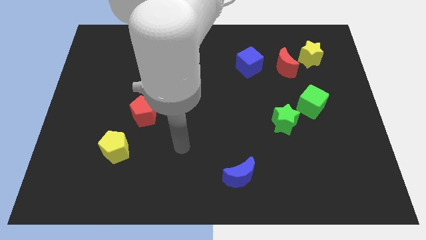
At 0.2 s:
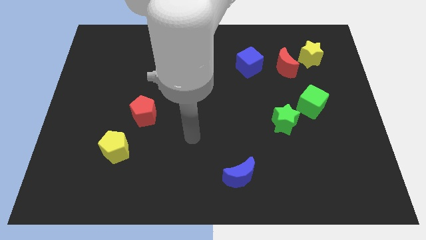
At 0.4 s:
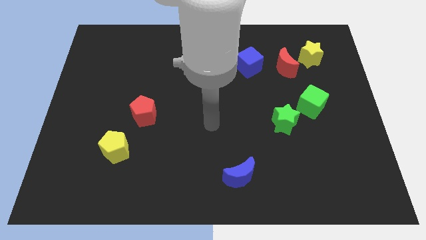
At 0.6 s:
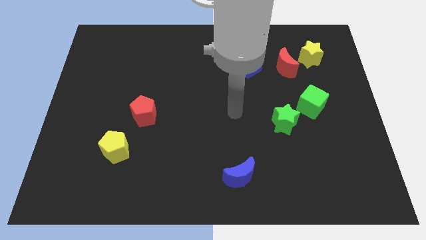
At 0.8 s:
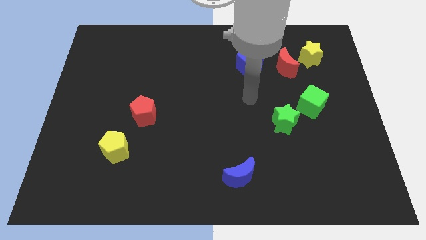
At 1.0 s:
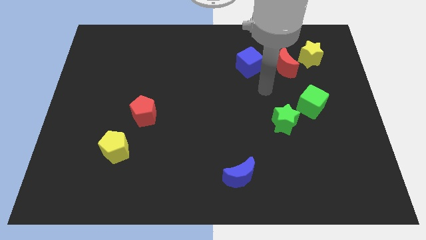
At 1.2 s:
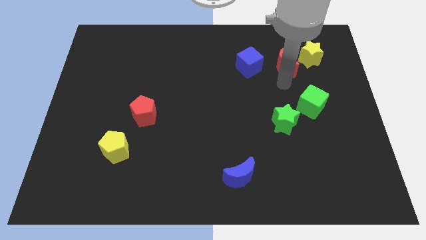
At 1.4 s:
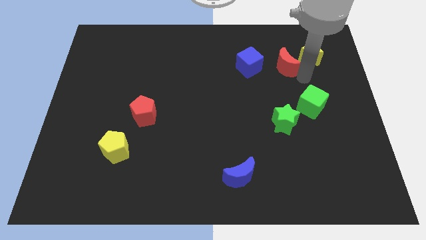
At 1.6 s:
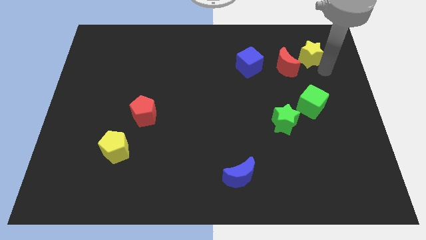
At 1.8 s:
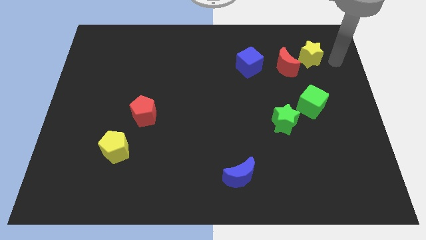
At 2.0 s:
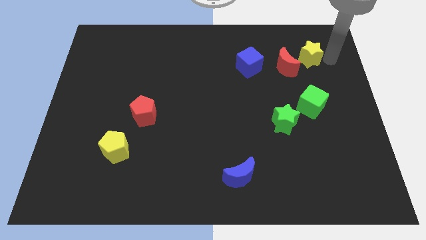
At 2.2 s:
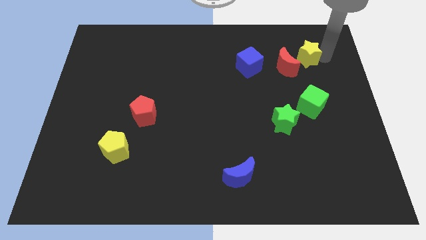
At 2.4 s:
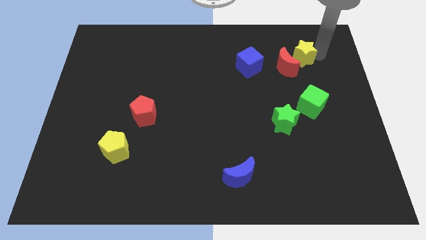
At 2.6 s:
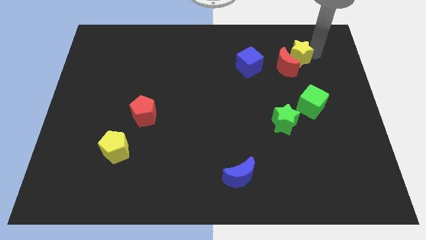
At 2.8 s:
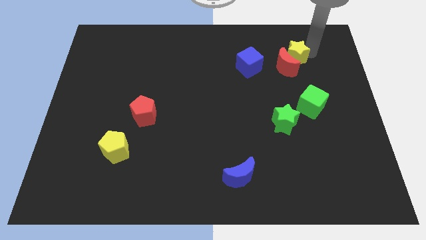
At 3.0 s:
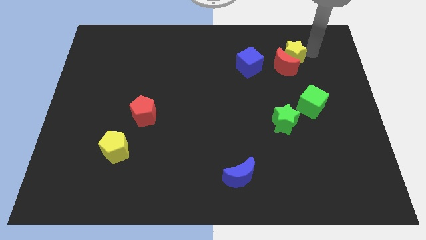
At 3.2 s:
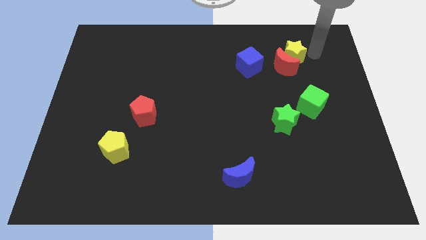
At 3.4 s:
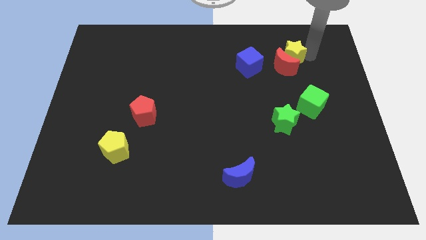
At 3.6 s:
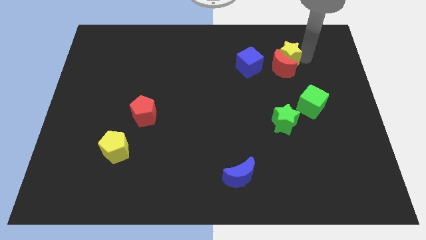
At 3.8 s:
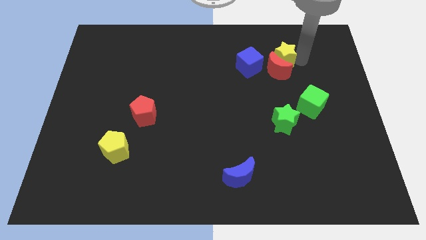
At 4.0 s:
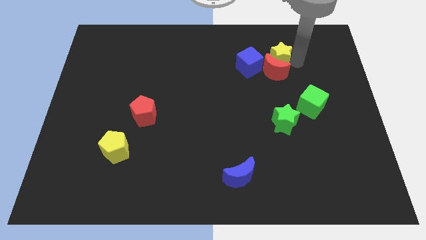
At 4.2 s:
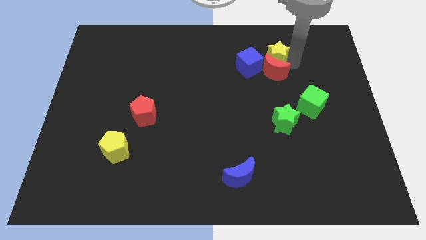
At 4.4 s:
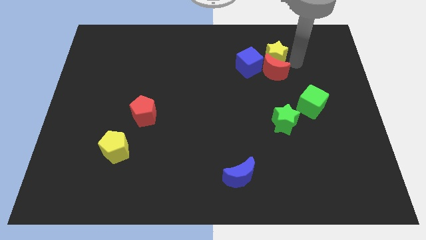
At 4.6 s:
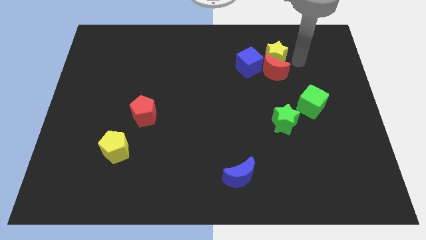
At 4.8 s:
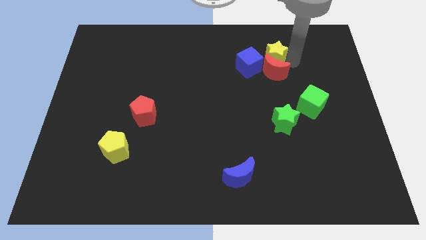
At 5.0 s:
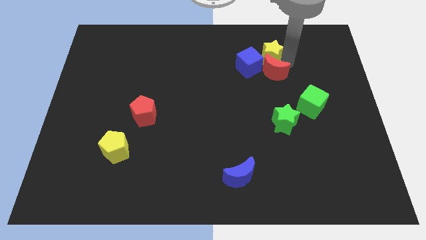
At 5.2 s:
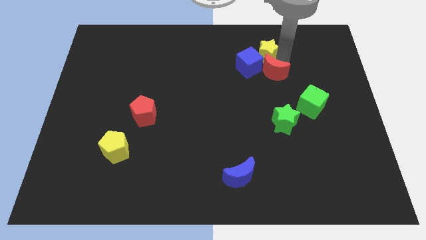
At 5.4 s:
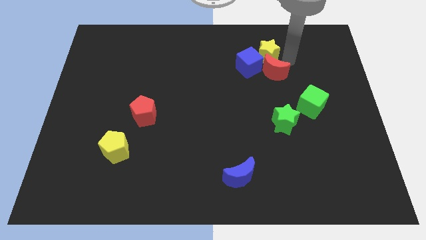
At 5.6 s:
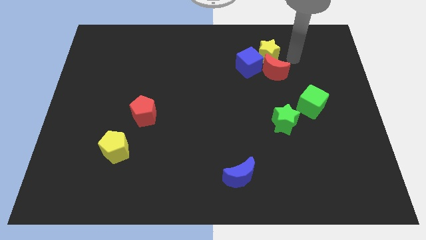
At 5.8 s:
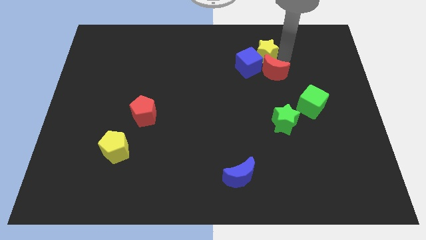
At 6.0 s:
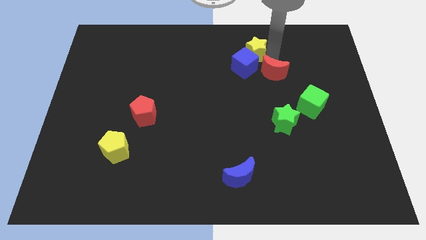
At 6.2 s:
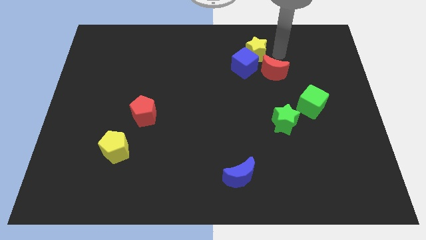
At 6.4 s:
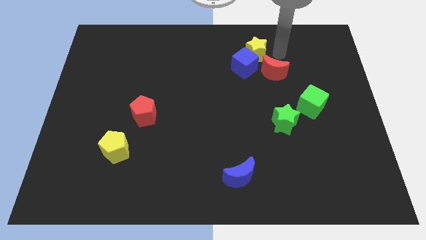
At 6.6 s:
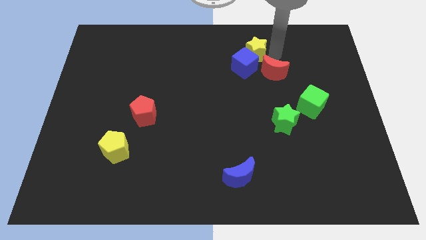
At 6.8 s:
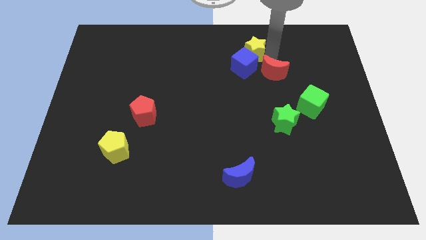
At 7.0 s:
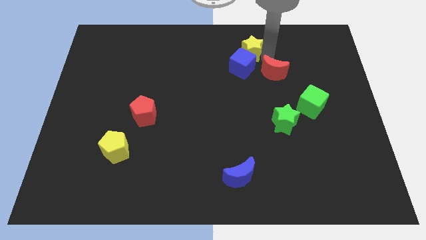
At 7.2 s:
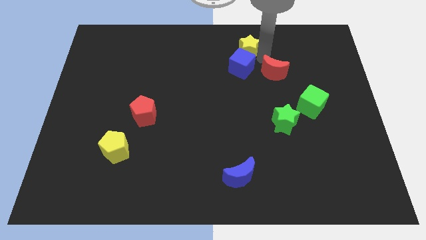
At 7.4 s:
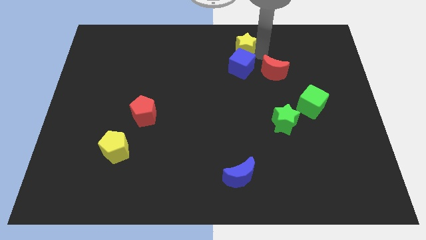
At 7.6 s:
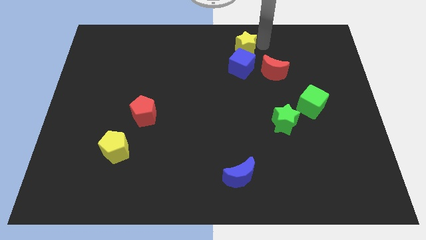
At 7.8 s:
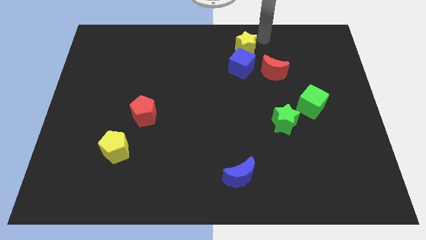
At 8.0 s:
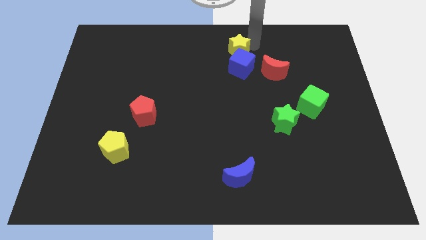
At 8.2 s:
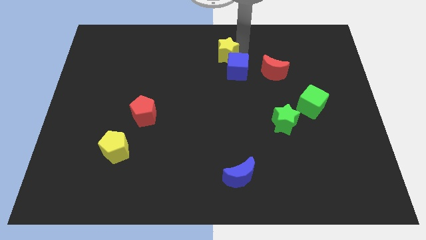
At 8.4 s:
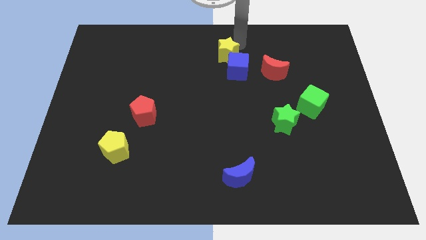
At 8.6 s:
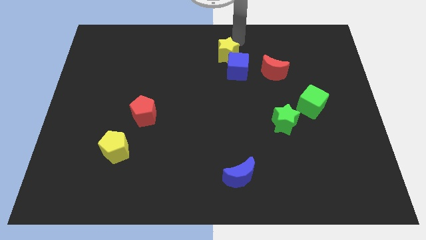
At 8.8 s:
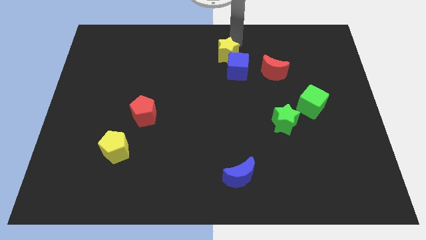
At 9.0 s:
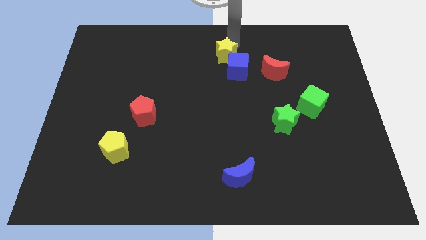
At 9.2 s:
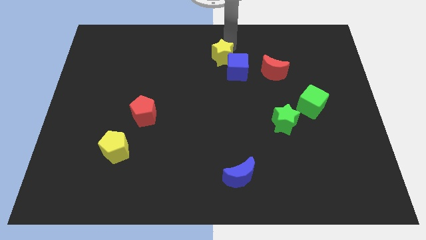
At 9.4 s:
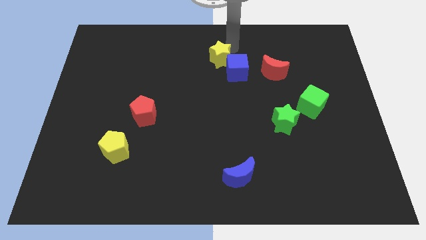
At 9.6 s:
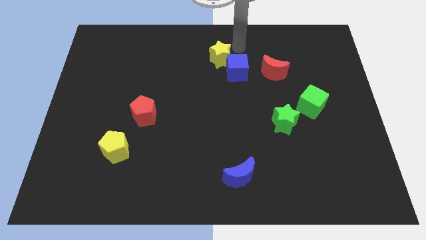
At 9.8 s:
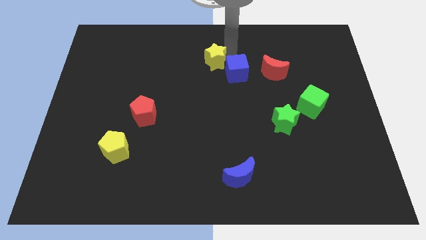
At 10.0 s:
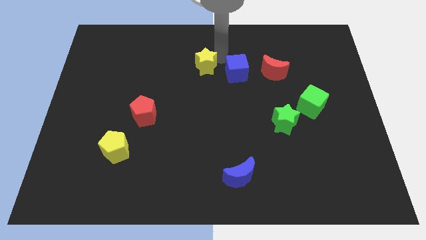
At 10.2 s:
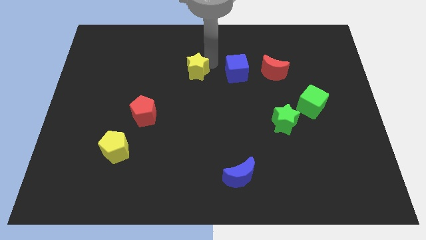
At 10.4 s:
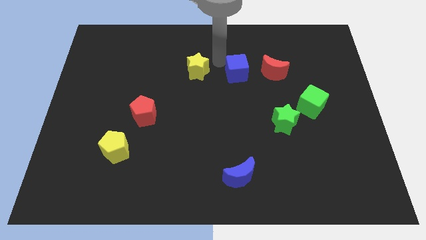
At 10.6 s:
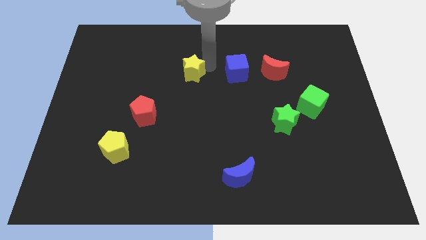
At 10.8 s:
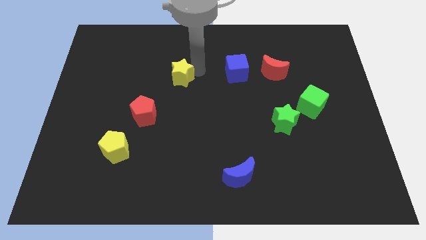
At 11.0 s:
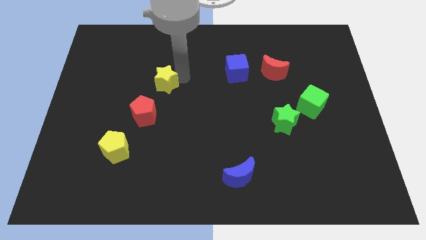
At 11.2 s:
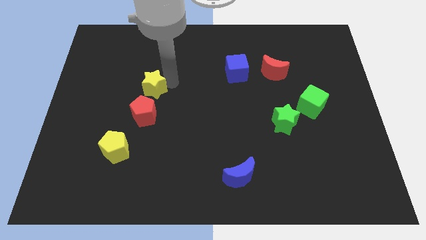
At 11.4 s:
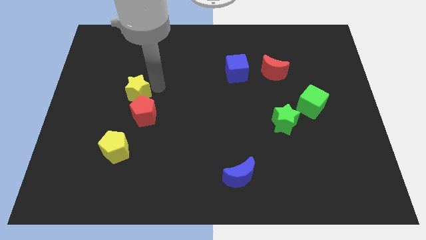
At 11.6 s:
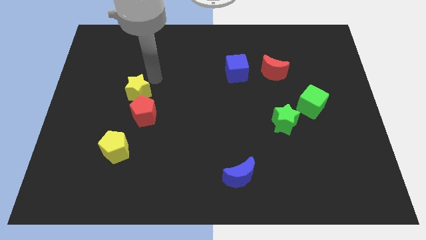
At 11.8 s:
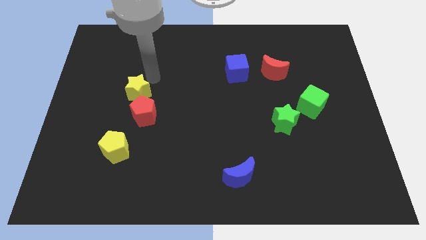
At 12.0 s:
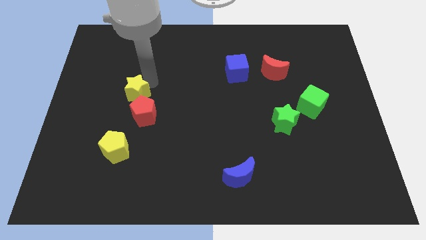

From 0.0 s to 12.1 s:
put the yellow star to the top of the yellow pentagon

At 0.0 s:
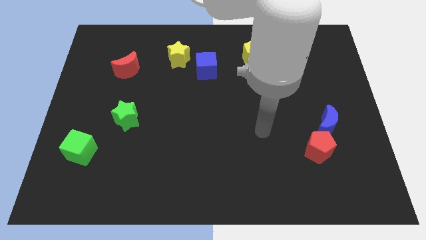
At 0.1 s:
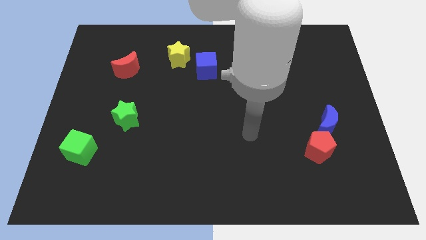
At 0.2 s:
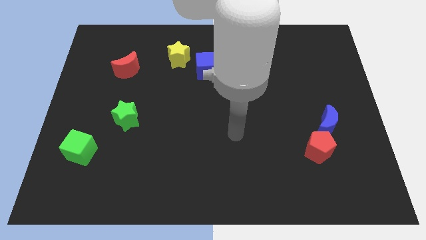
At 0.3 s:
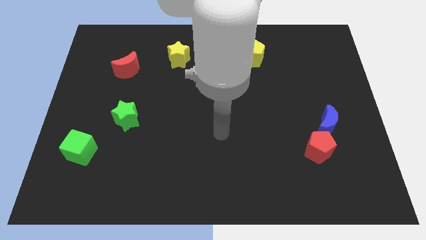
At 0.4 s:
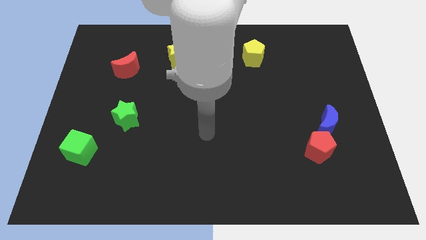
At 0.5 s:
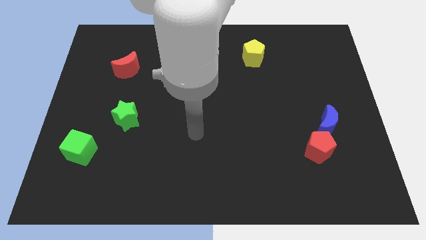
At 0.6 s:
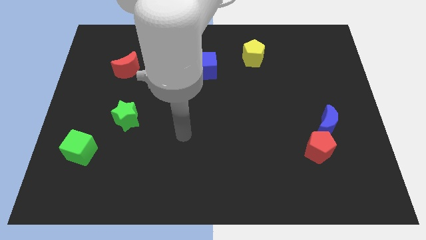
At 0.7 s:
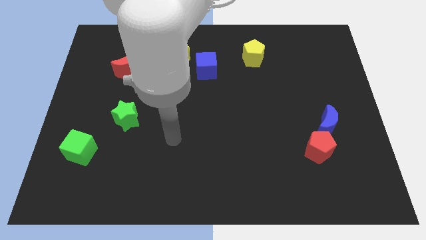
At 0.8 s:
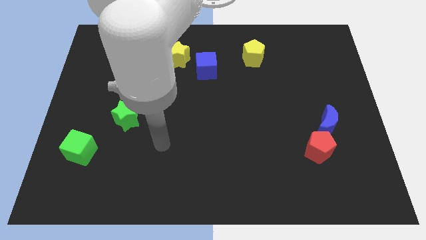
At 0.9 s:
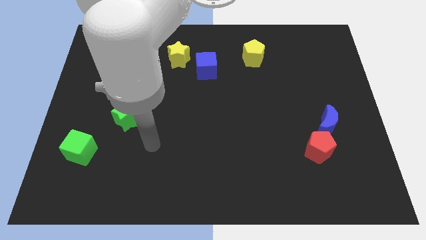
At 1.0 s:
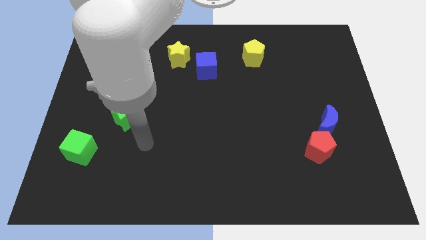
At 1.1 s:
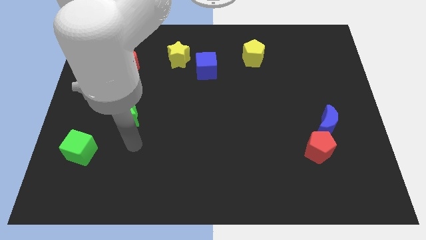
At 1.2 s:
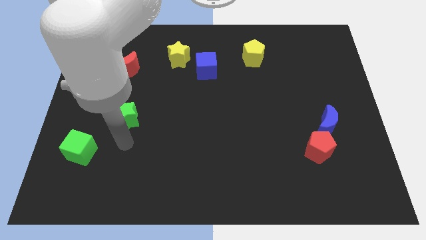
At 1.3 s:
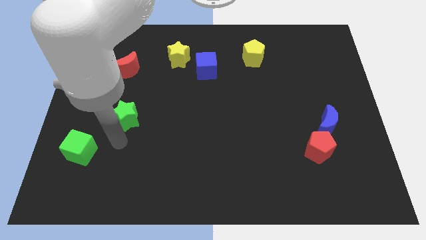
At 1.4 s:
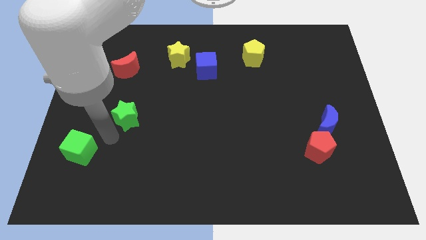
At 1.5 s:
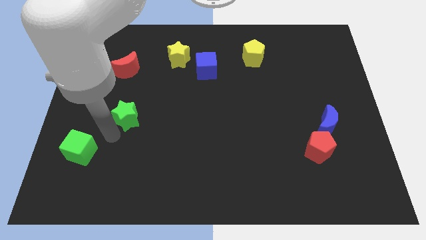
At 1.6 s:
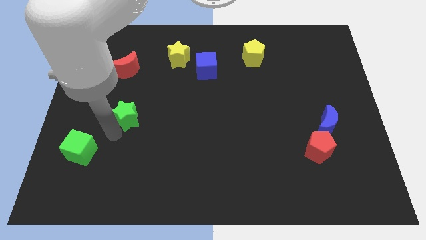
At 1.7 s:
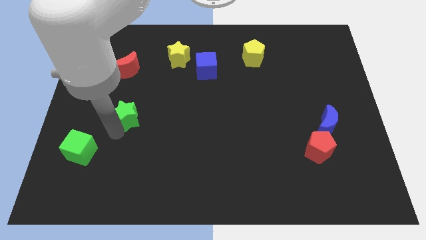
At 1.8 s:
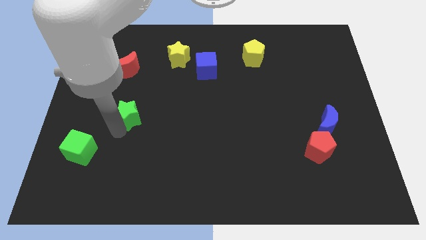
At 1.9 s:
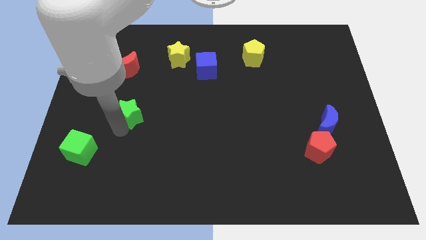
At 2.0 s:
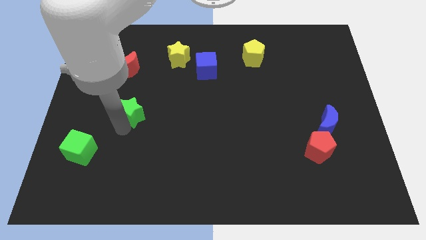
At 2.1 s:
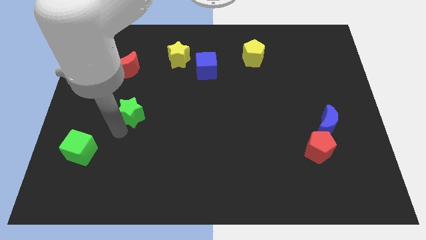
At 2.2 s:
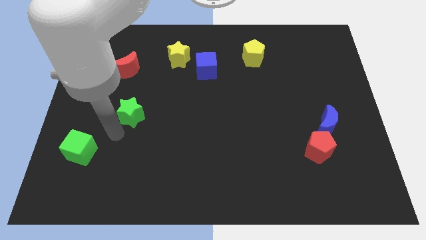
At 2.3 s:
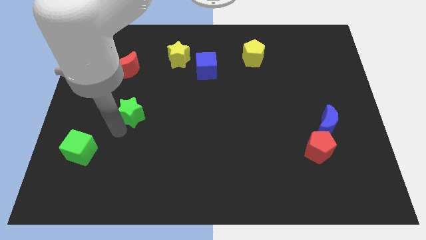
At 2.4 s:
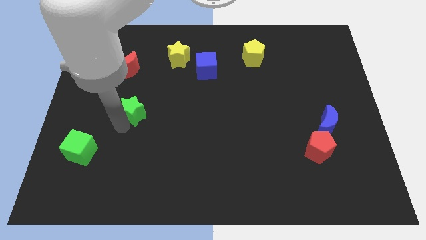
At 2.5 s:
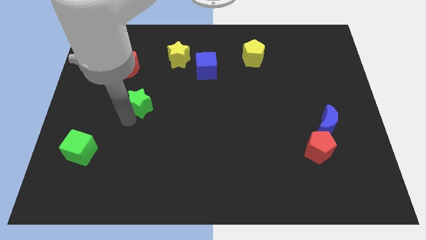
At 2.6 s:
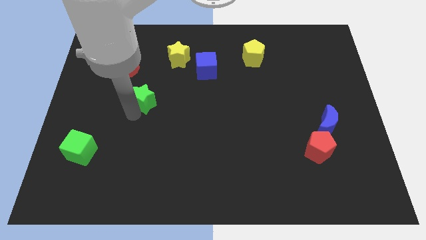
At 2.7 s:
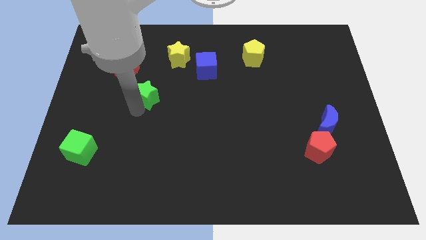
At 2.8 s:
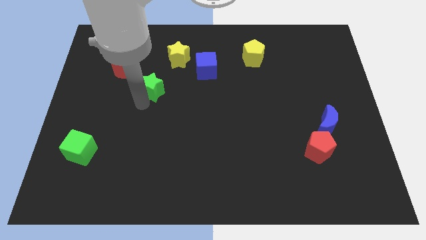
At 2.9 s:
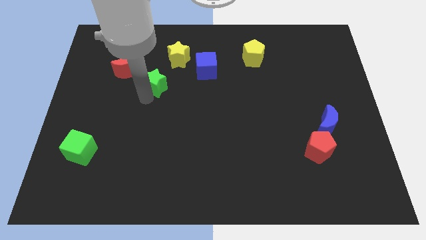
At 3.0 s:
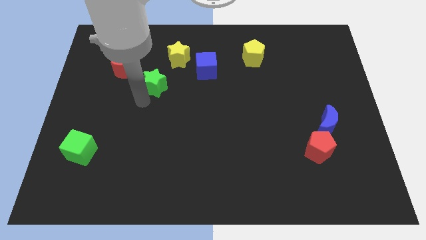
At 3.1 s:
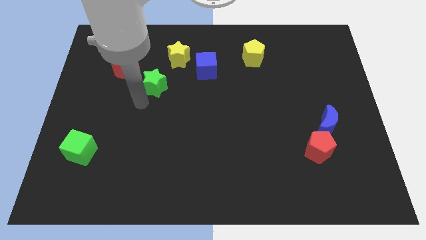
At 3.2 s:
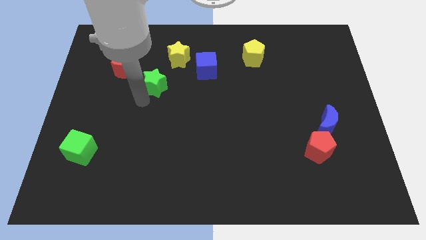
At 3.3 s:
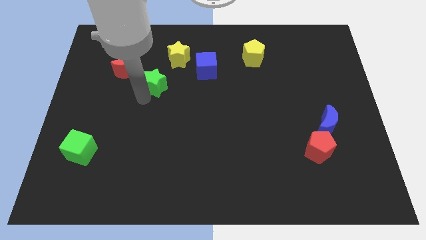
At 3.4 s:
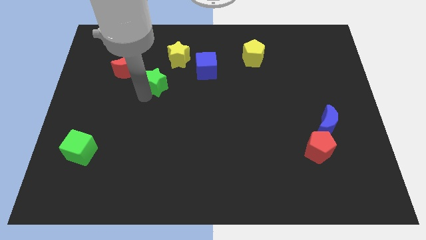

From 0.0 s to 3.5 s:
push the green star right of the red moon
